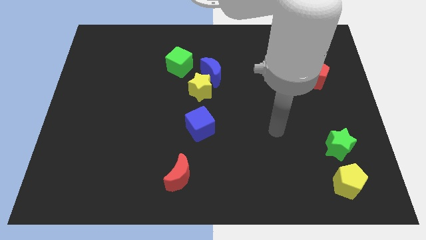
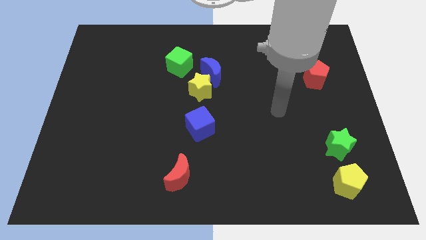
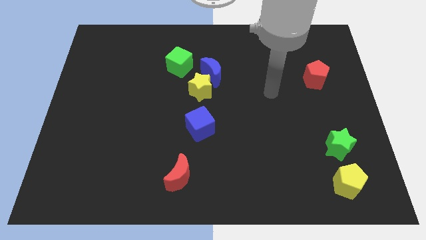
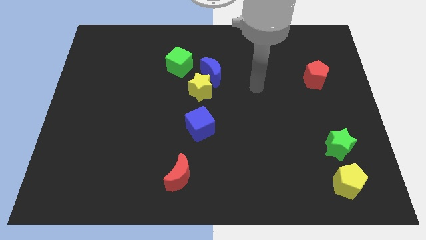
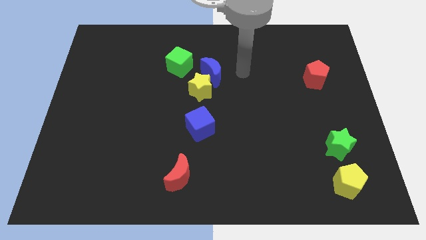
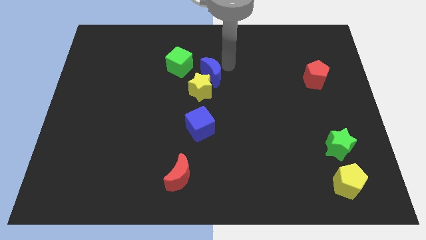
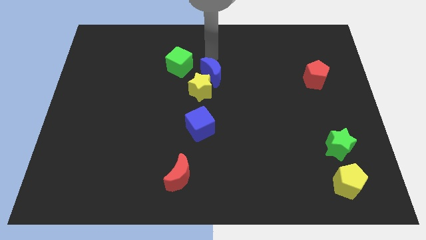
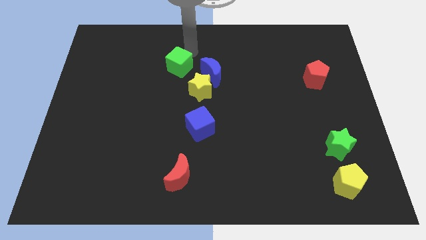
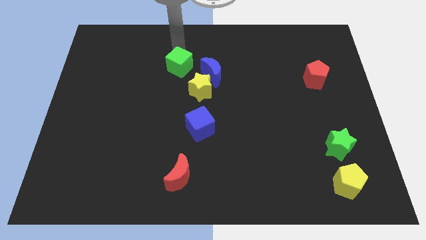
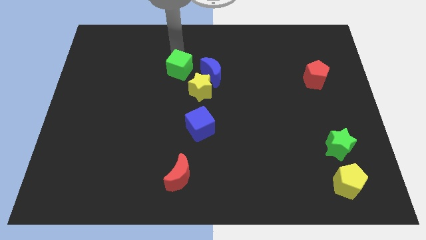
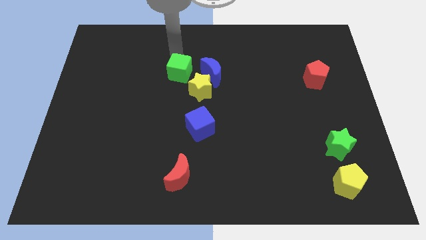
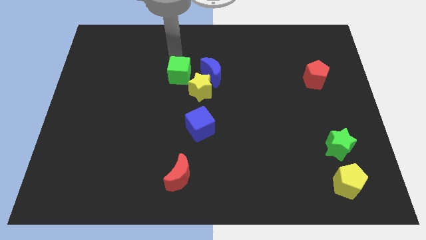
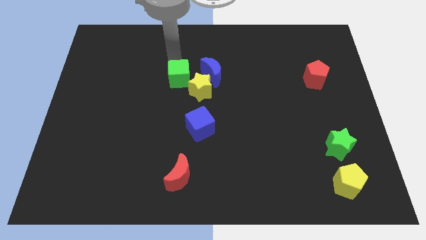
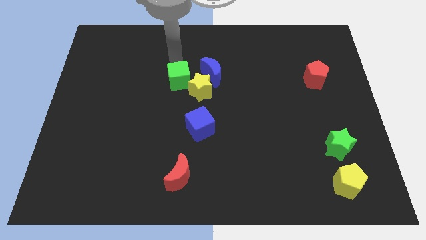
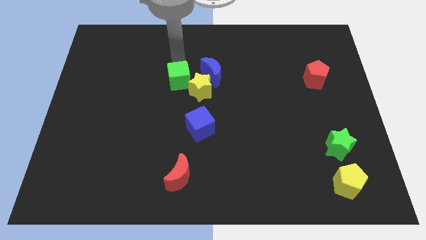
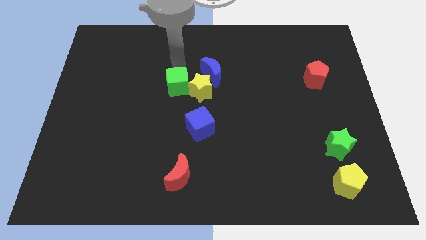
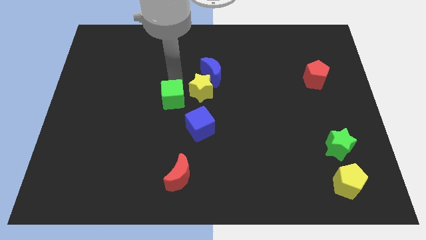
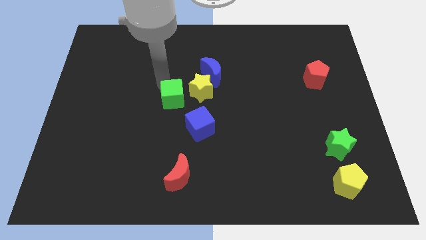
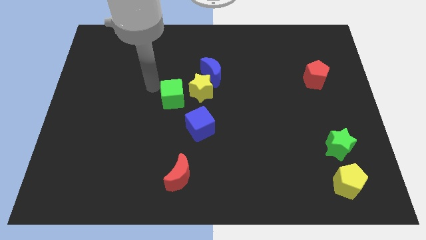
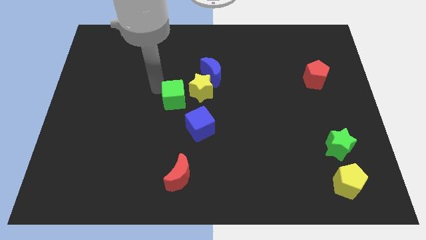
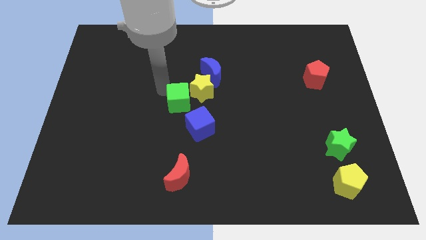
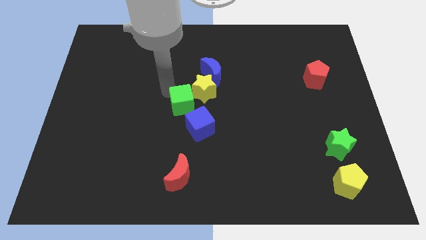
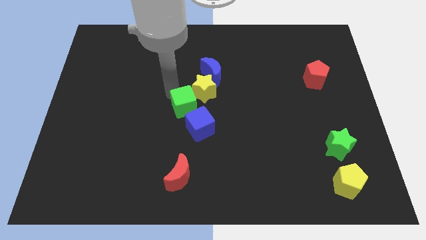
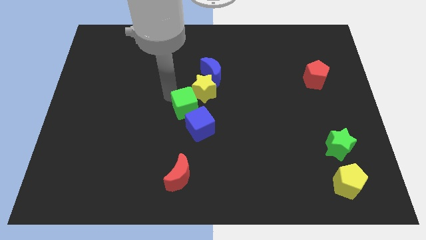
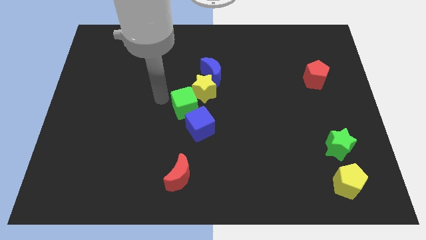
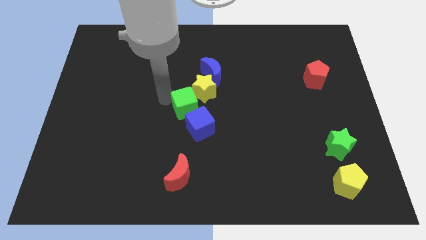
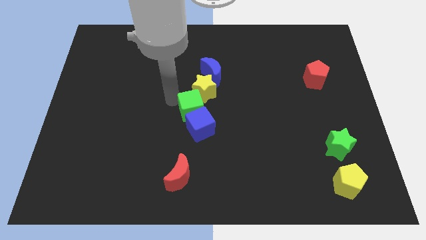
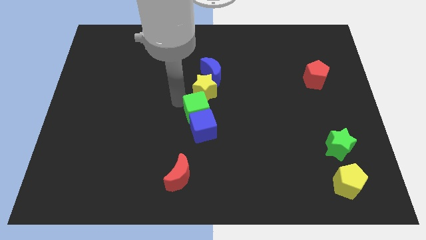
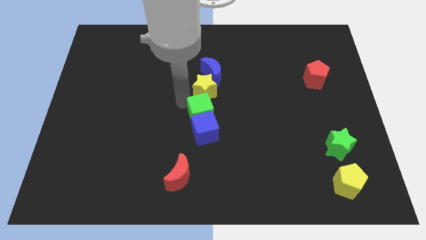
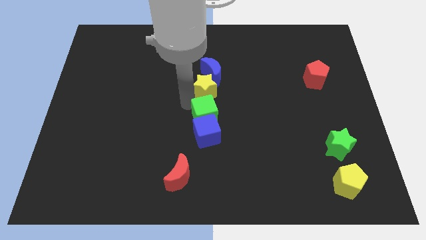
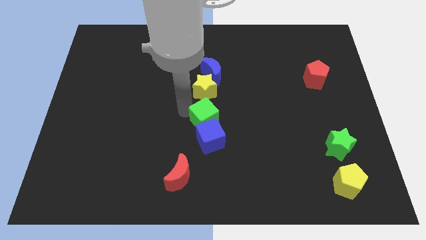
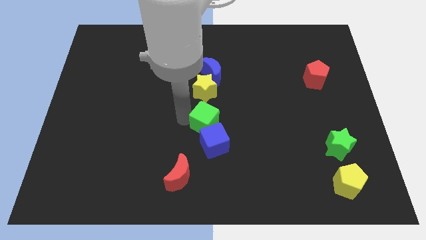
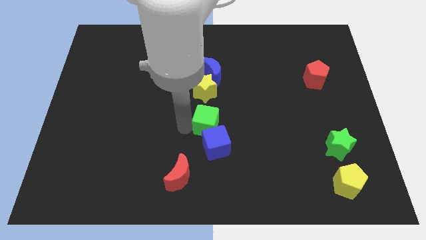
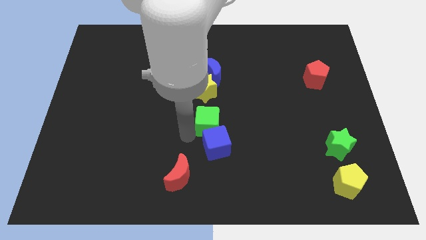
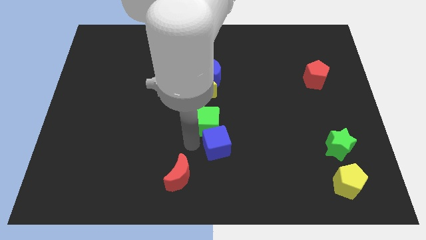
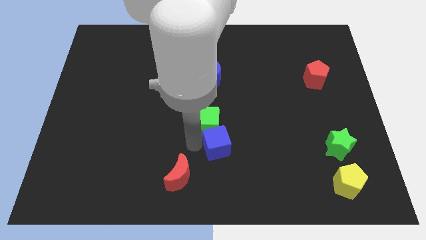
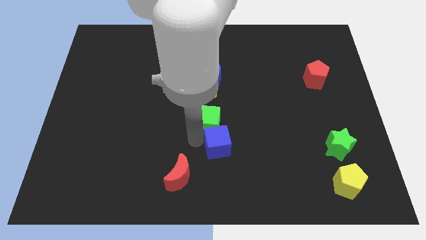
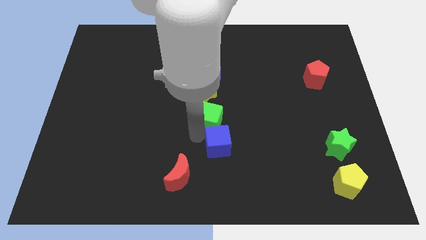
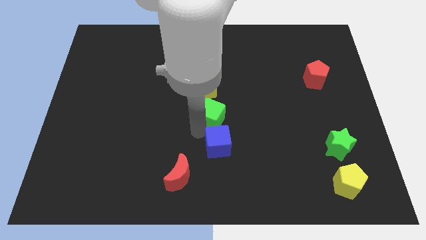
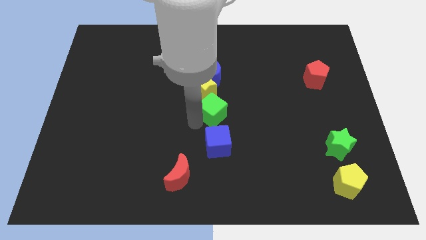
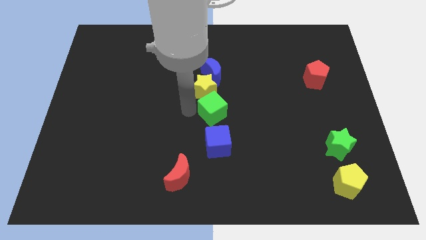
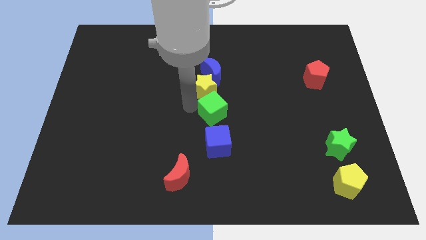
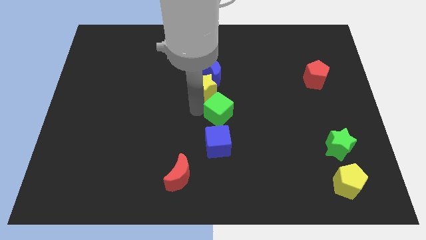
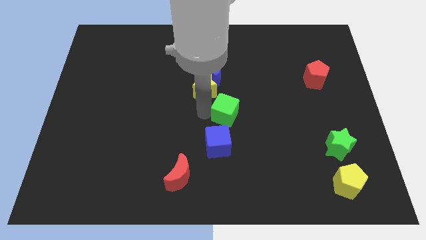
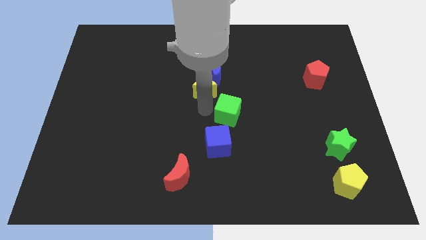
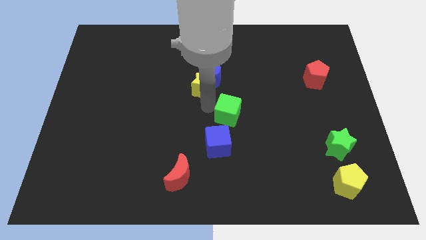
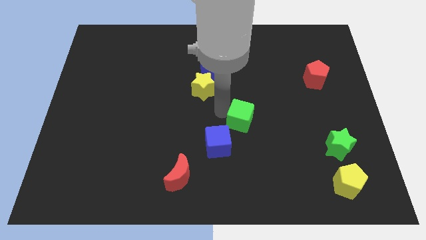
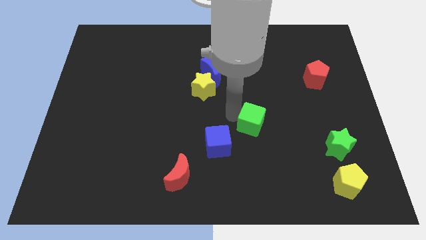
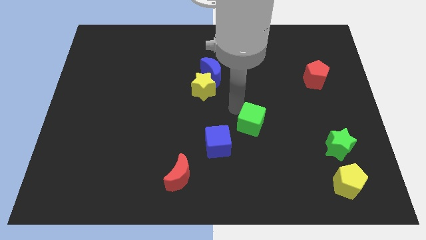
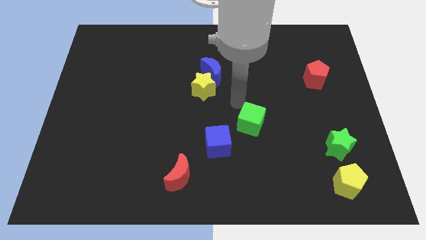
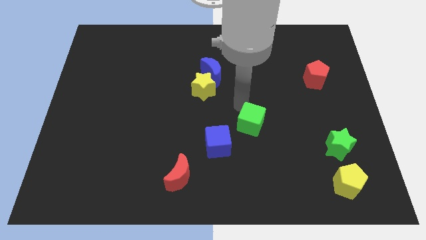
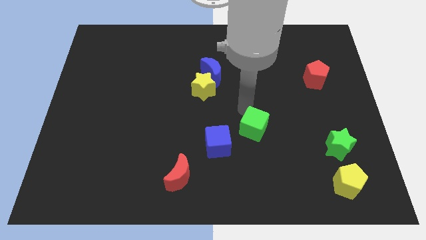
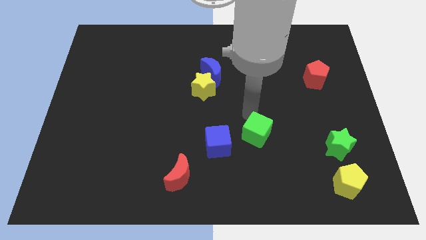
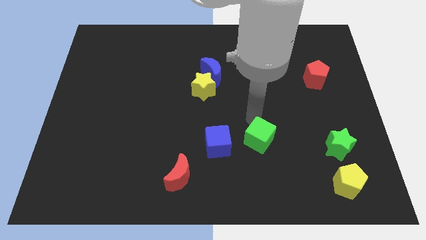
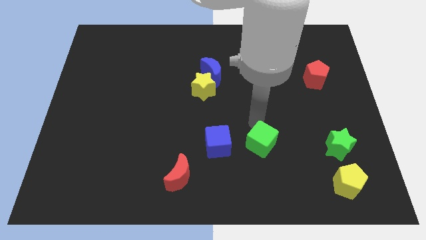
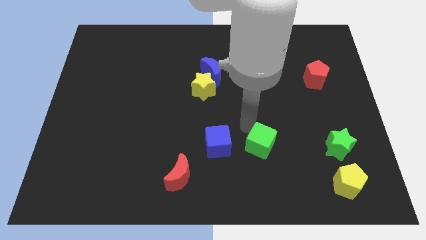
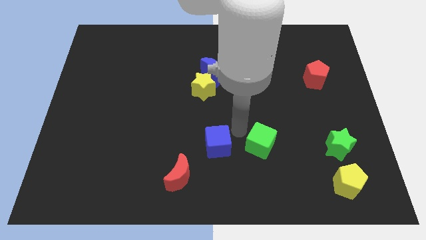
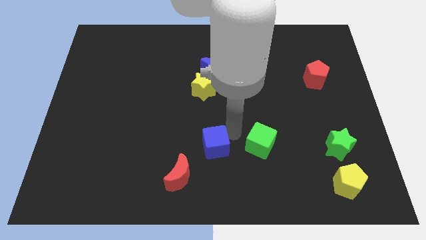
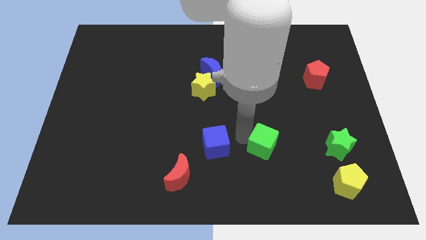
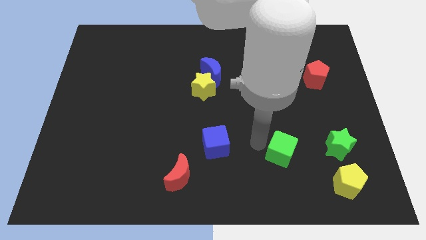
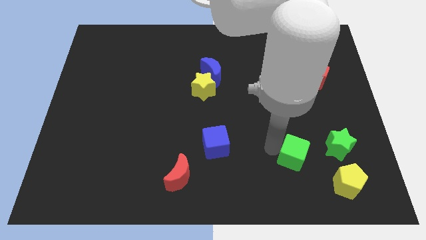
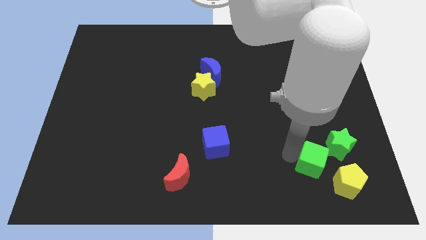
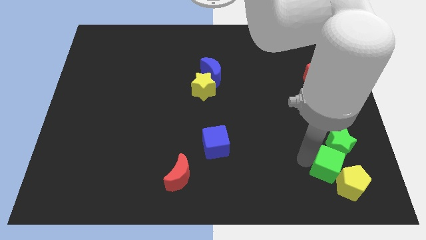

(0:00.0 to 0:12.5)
move the green cube towards the yellow pentagon
